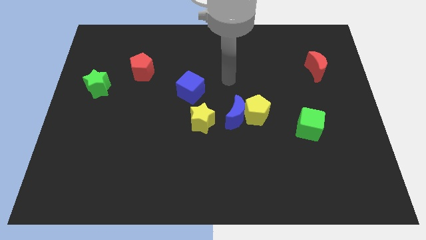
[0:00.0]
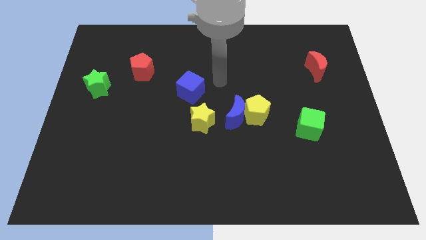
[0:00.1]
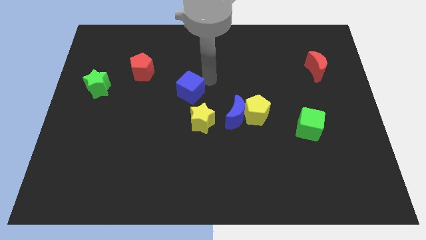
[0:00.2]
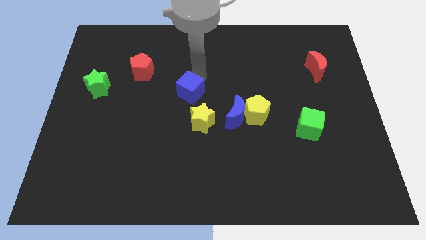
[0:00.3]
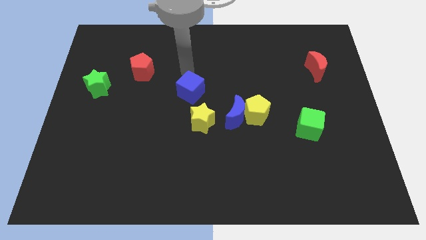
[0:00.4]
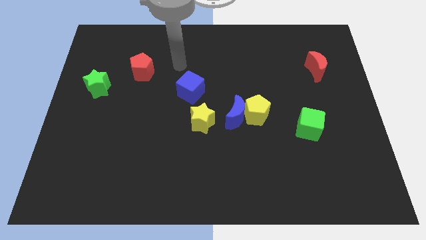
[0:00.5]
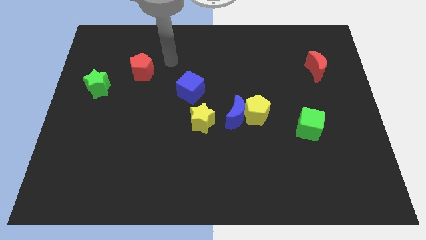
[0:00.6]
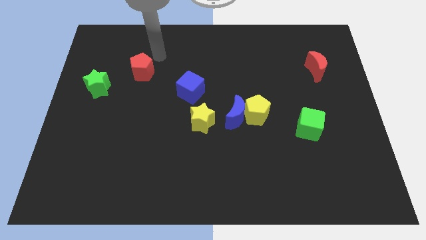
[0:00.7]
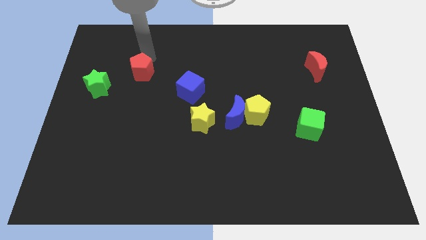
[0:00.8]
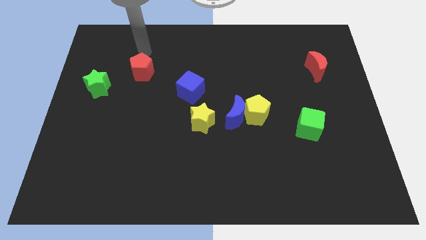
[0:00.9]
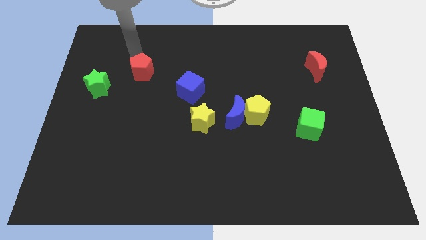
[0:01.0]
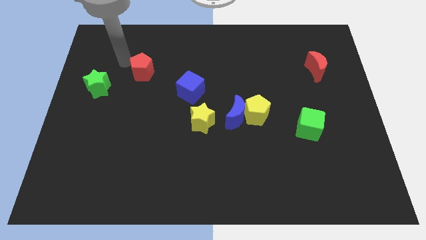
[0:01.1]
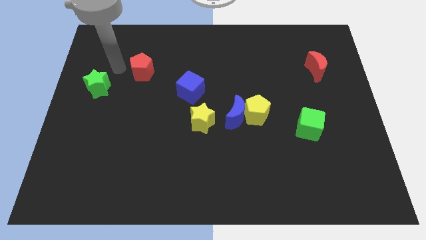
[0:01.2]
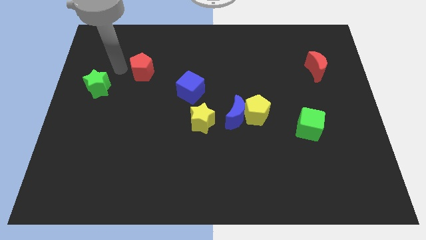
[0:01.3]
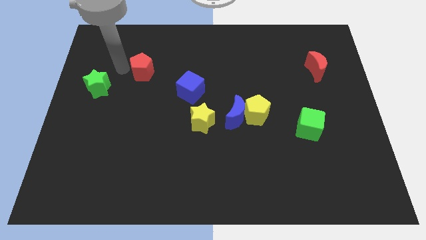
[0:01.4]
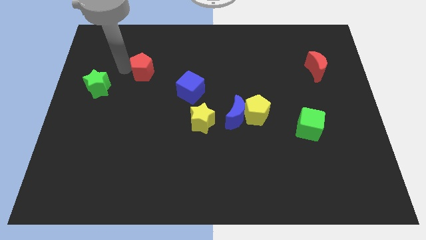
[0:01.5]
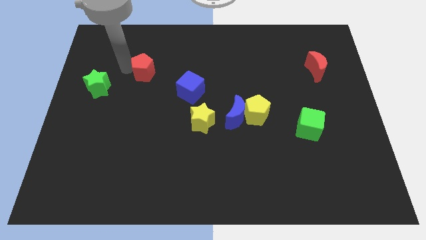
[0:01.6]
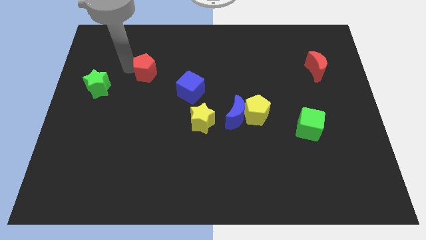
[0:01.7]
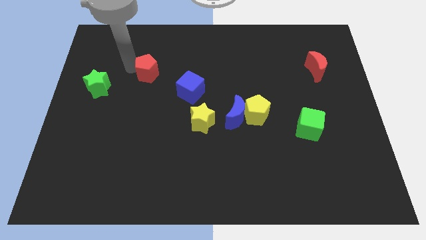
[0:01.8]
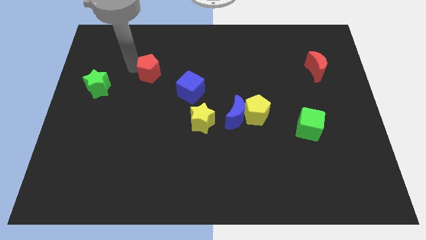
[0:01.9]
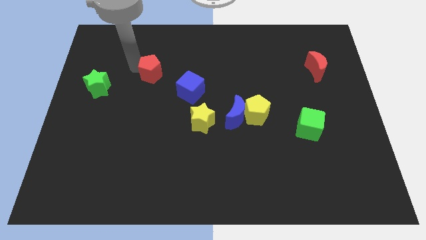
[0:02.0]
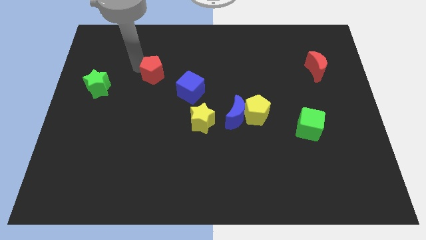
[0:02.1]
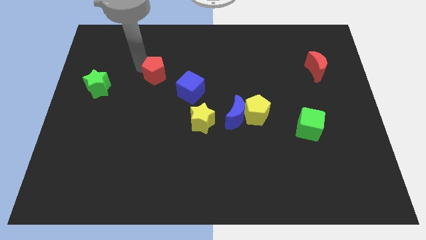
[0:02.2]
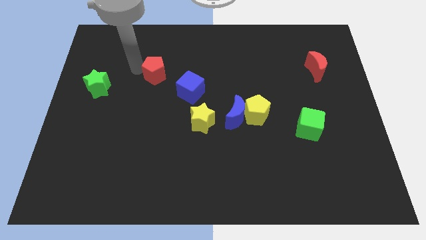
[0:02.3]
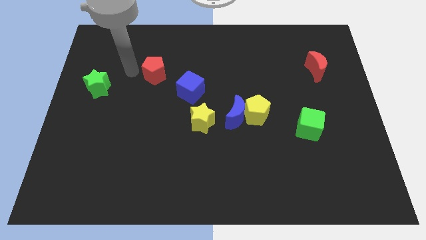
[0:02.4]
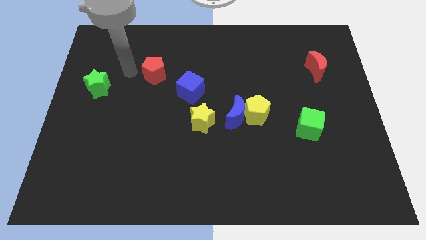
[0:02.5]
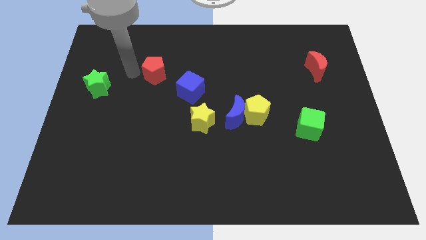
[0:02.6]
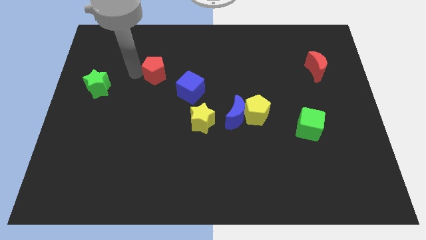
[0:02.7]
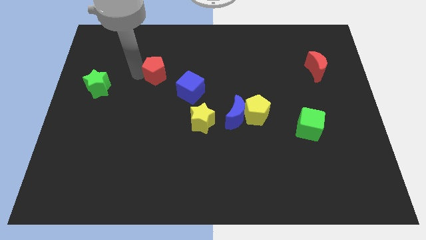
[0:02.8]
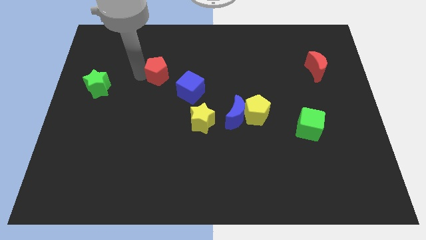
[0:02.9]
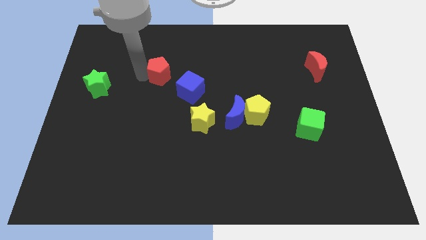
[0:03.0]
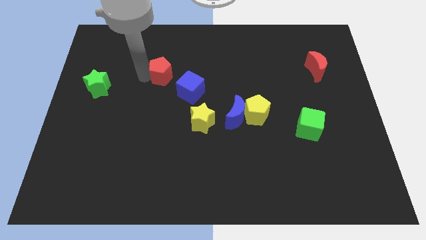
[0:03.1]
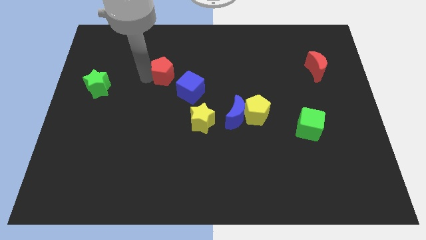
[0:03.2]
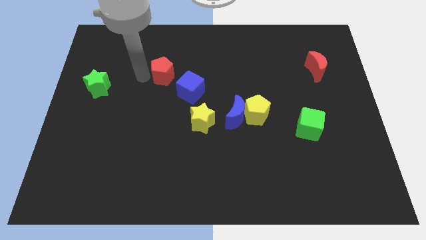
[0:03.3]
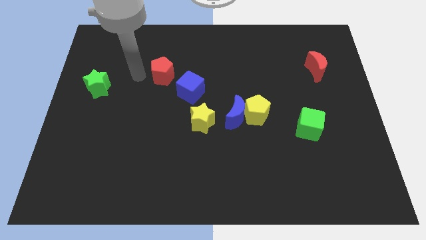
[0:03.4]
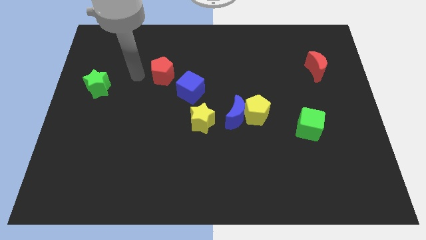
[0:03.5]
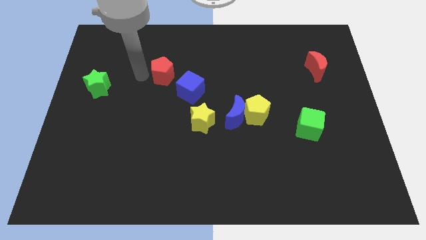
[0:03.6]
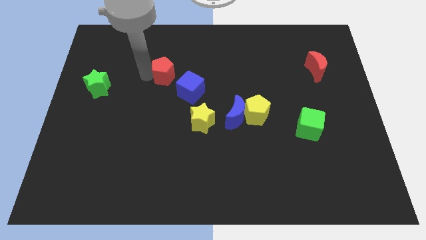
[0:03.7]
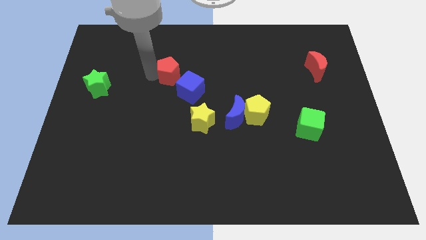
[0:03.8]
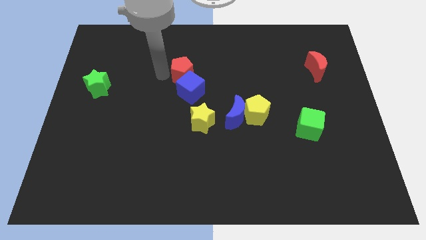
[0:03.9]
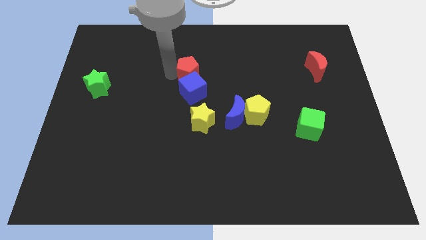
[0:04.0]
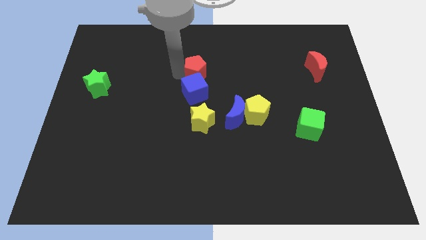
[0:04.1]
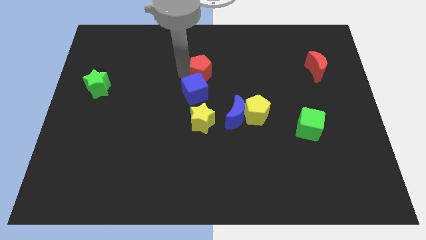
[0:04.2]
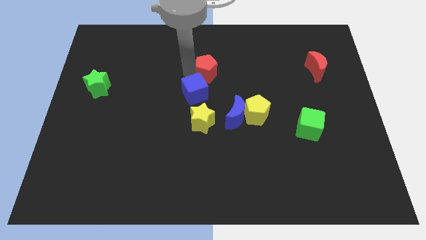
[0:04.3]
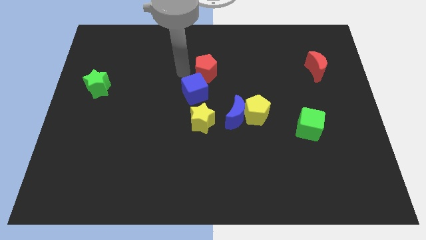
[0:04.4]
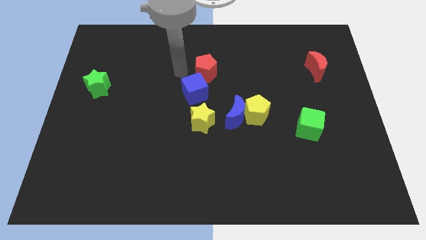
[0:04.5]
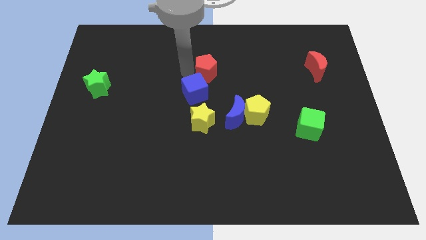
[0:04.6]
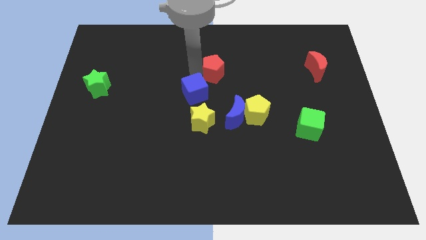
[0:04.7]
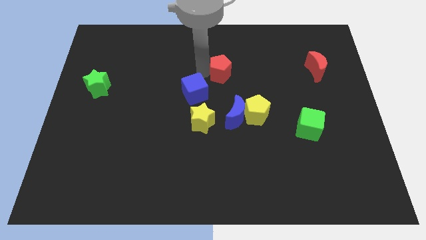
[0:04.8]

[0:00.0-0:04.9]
move the red pentagon right

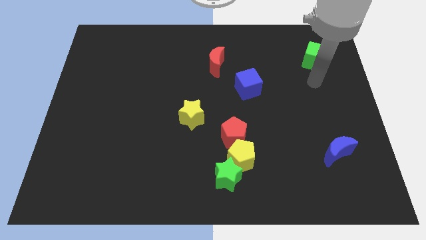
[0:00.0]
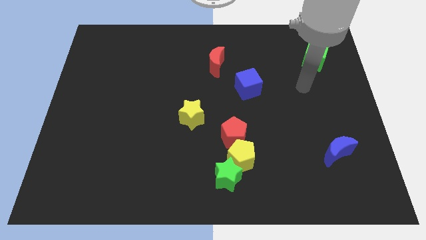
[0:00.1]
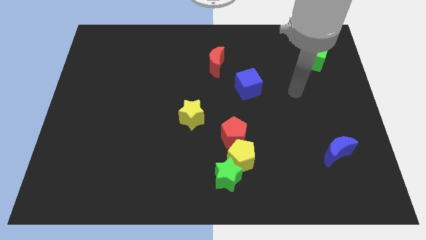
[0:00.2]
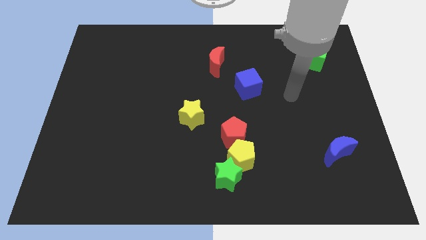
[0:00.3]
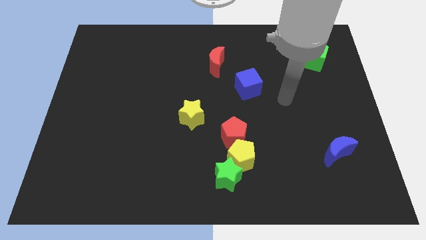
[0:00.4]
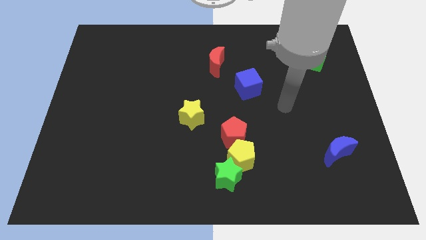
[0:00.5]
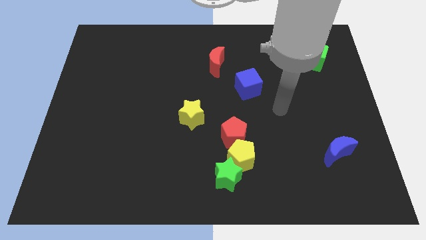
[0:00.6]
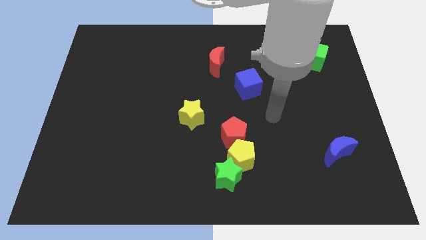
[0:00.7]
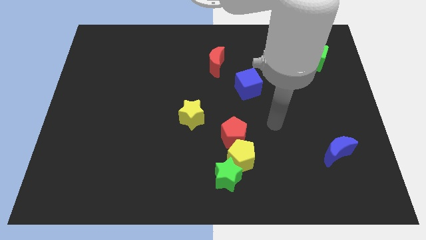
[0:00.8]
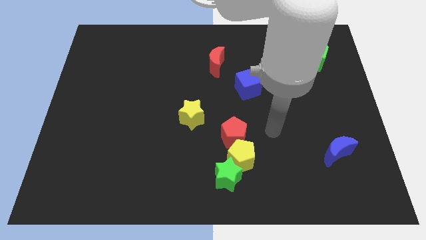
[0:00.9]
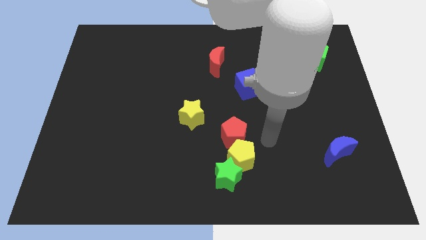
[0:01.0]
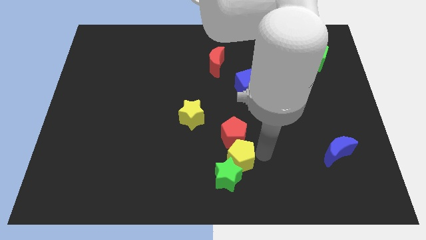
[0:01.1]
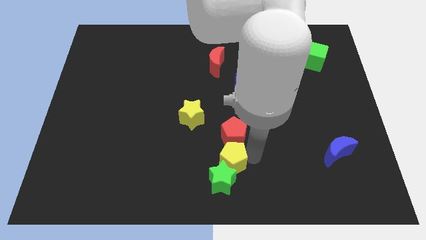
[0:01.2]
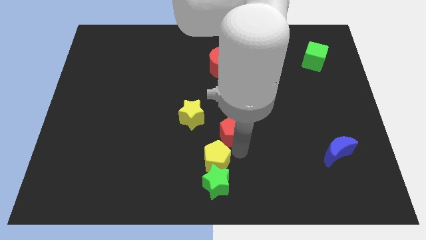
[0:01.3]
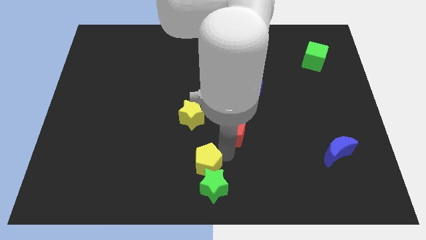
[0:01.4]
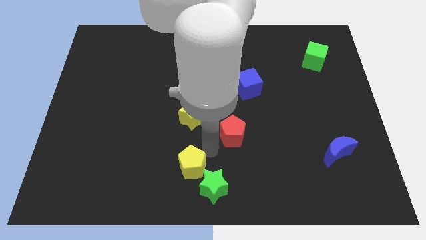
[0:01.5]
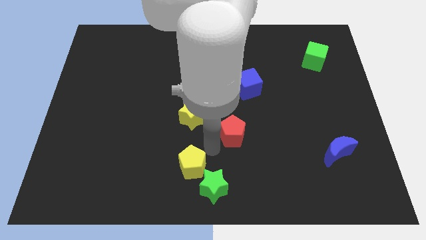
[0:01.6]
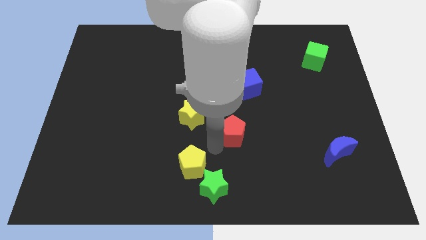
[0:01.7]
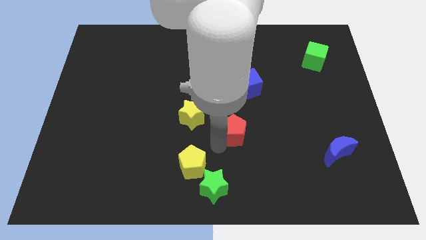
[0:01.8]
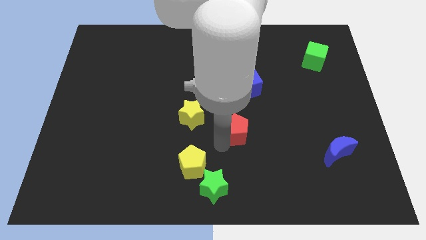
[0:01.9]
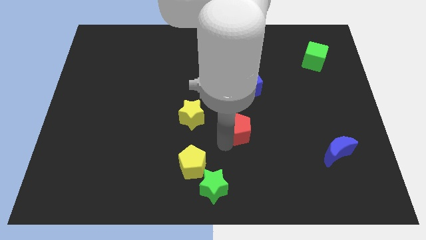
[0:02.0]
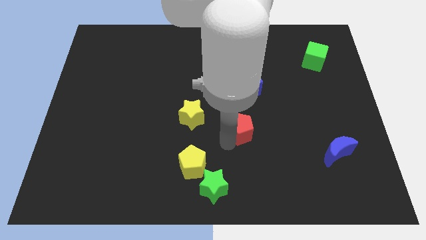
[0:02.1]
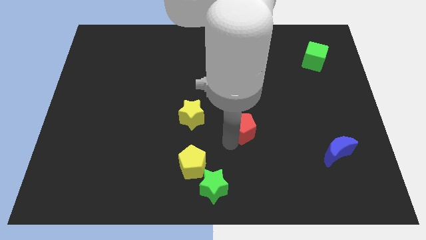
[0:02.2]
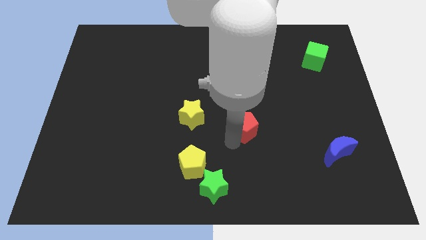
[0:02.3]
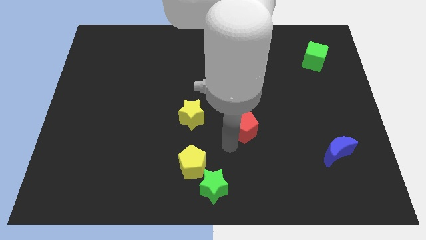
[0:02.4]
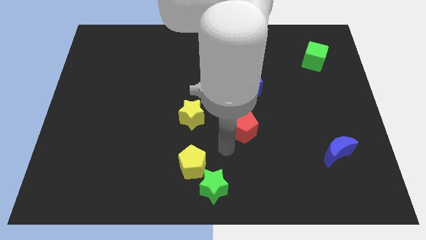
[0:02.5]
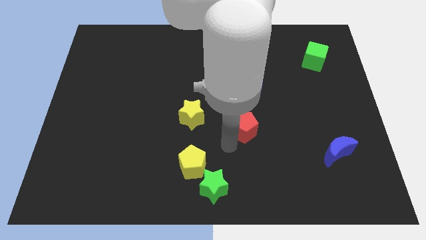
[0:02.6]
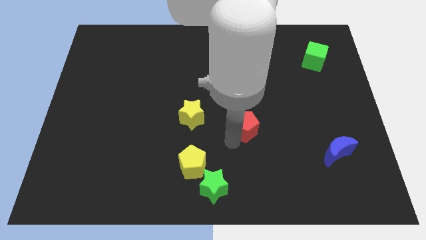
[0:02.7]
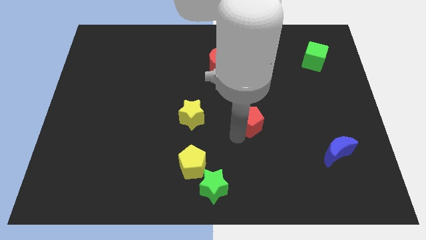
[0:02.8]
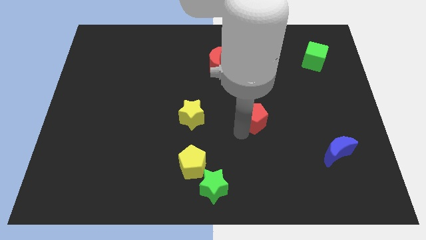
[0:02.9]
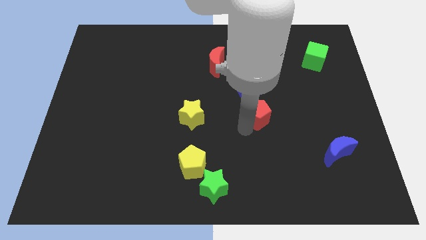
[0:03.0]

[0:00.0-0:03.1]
move the red pentagon somewhat up and to the right

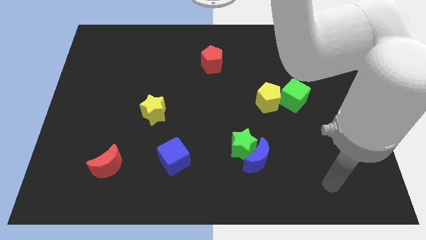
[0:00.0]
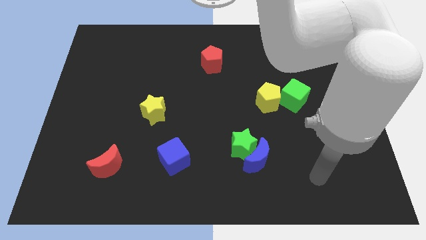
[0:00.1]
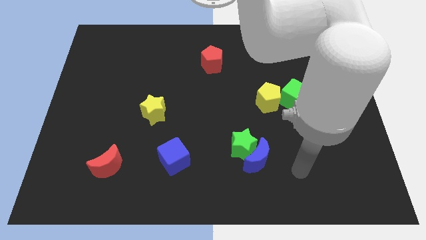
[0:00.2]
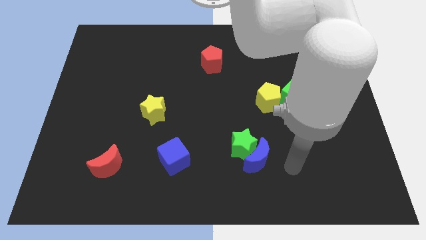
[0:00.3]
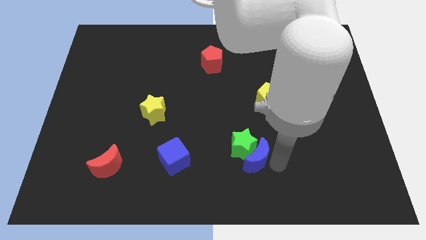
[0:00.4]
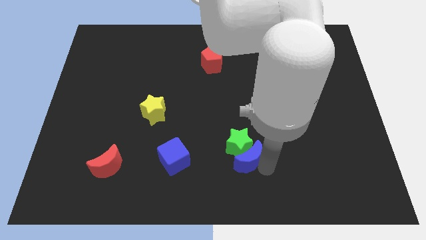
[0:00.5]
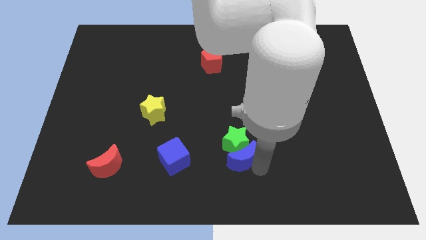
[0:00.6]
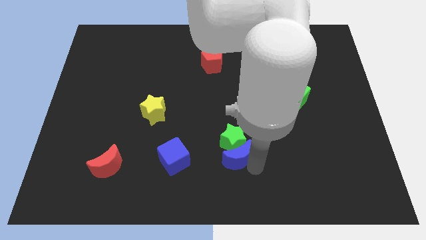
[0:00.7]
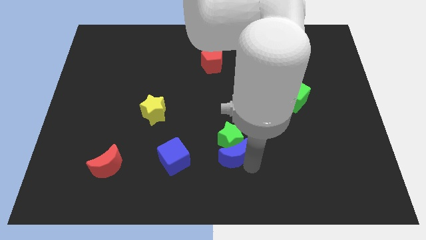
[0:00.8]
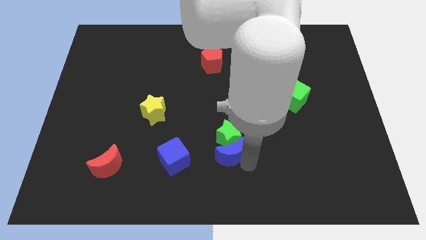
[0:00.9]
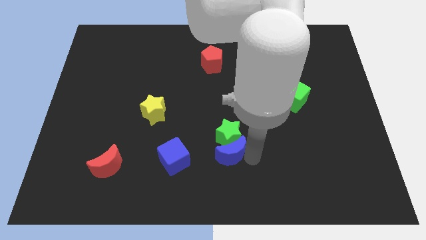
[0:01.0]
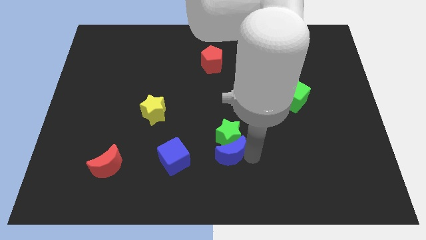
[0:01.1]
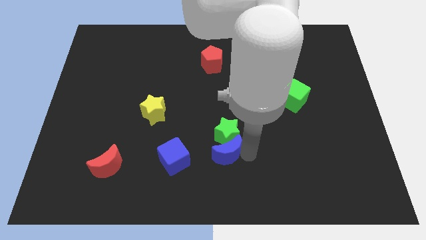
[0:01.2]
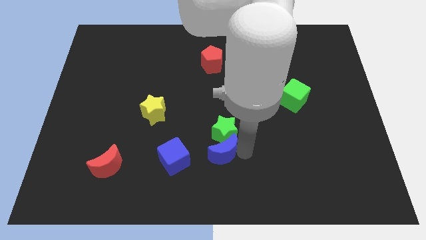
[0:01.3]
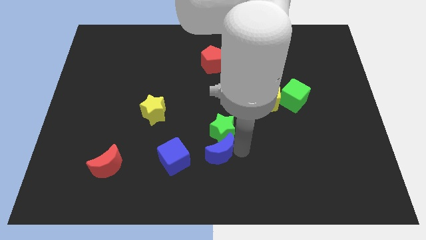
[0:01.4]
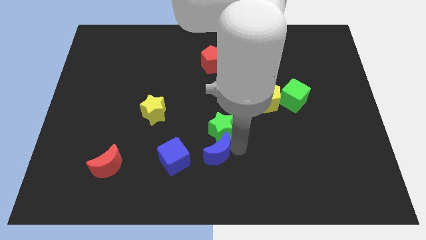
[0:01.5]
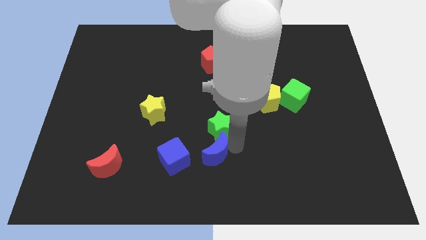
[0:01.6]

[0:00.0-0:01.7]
move the green star a little bit up and to the left diagonally
